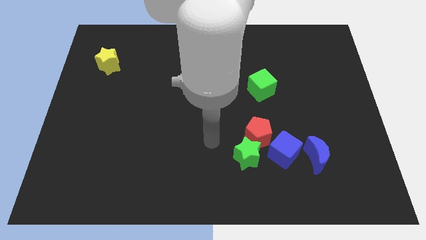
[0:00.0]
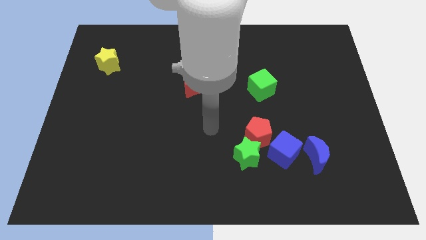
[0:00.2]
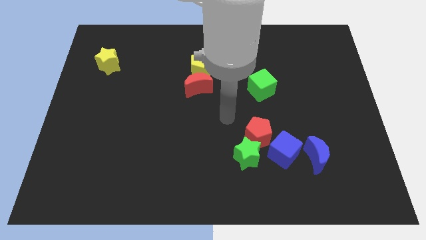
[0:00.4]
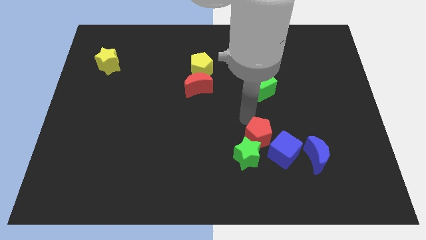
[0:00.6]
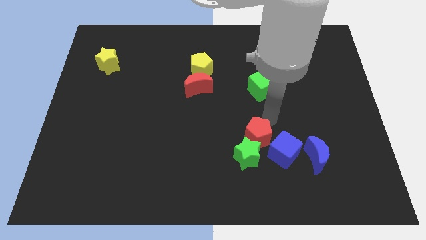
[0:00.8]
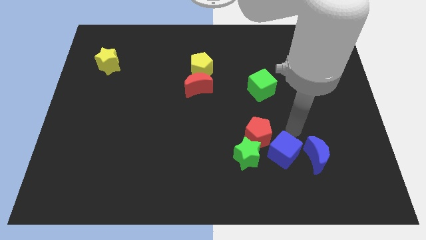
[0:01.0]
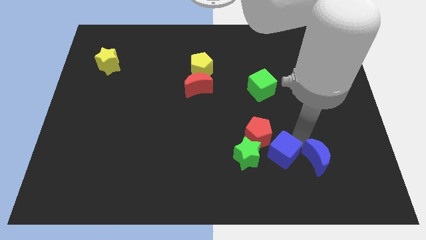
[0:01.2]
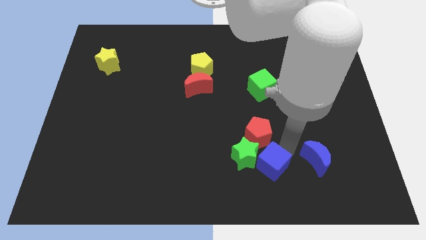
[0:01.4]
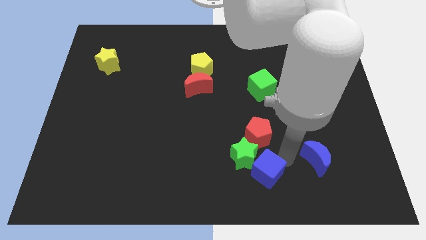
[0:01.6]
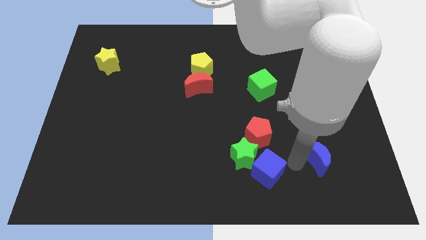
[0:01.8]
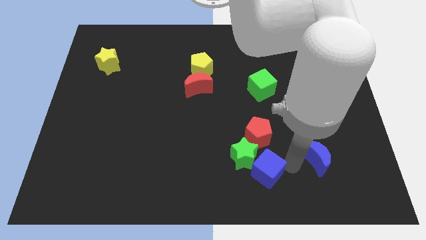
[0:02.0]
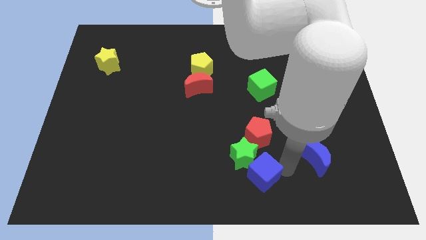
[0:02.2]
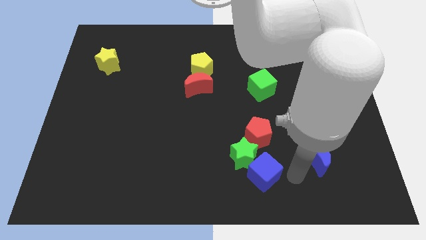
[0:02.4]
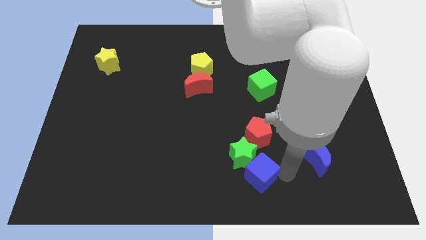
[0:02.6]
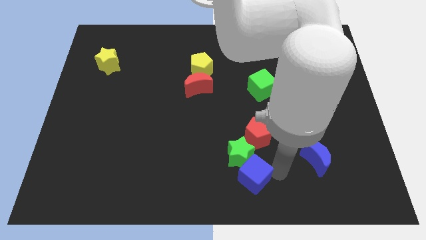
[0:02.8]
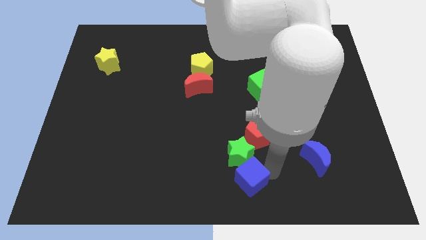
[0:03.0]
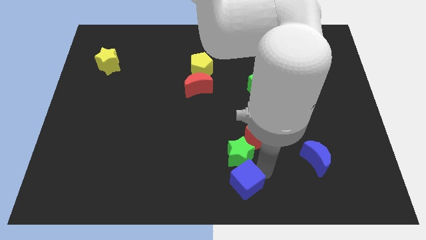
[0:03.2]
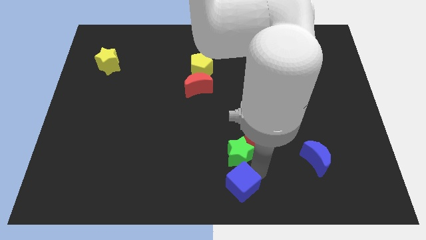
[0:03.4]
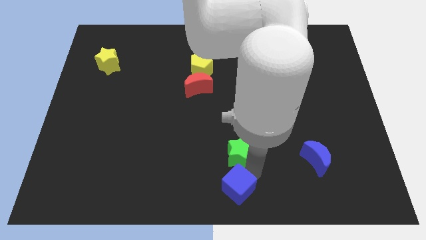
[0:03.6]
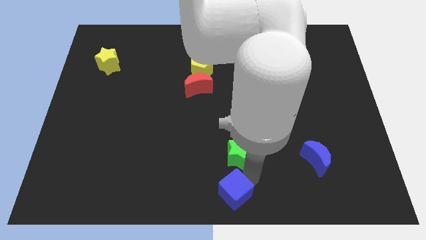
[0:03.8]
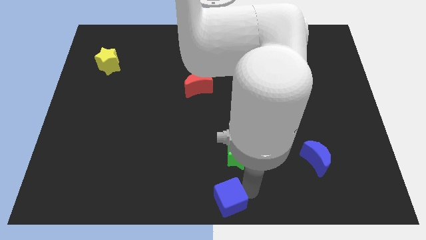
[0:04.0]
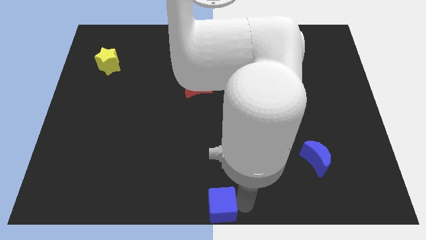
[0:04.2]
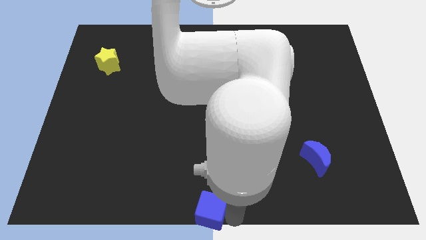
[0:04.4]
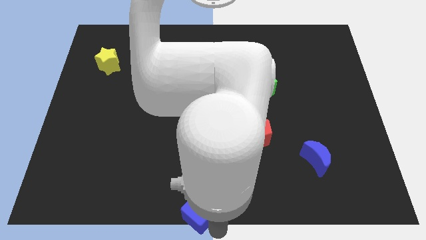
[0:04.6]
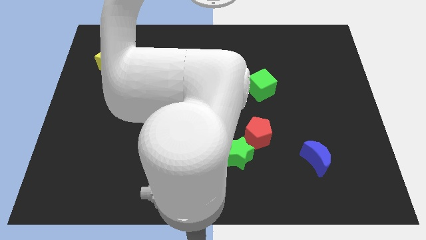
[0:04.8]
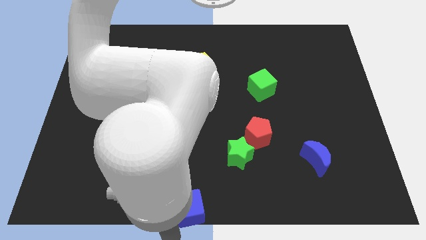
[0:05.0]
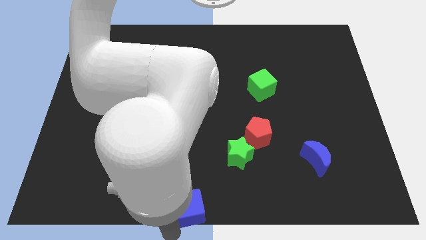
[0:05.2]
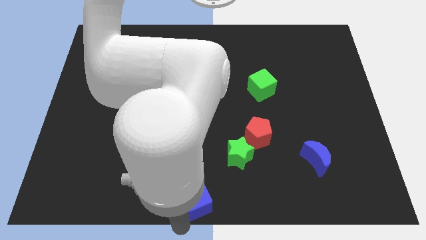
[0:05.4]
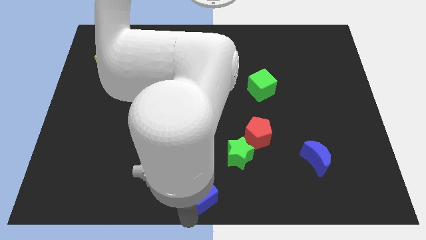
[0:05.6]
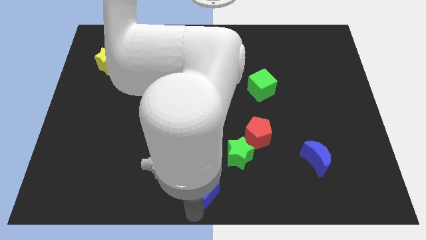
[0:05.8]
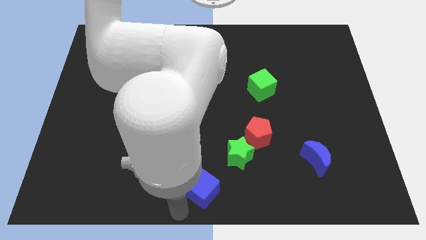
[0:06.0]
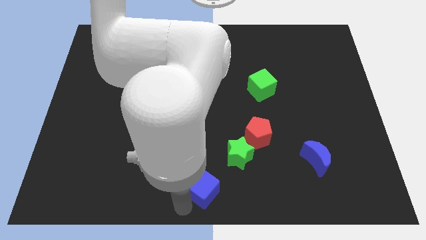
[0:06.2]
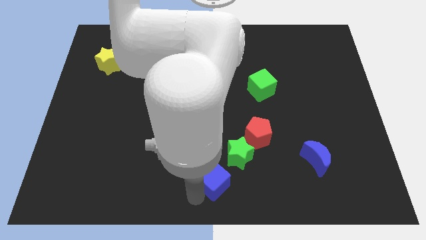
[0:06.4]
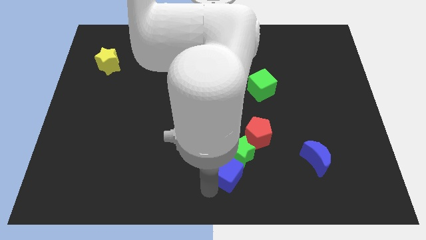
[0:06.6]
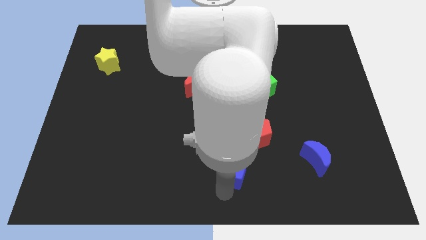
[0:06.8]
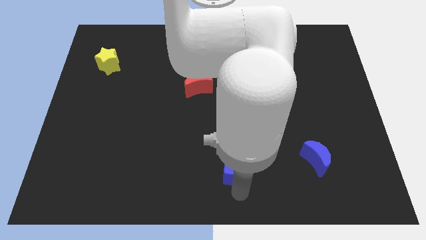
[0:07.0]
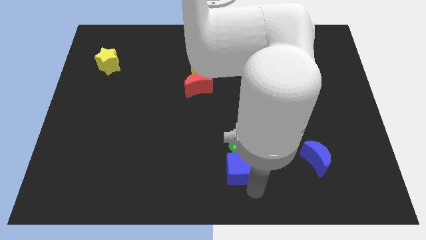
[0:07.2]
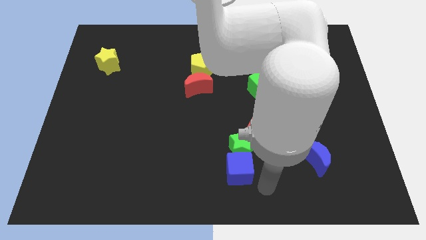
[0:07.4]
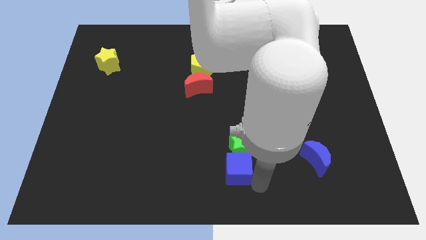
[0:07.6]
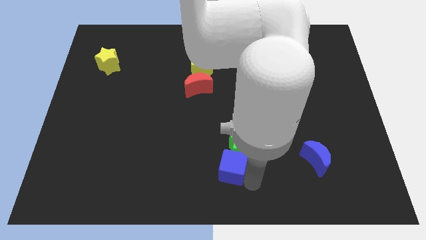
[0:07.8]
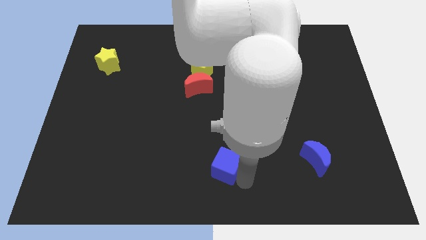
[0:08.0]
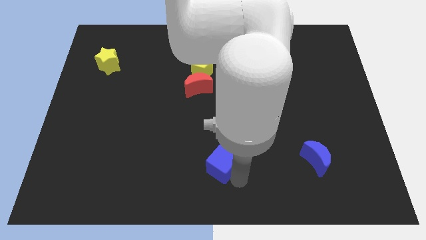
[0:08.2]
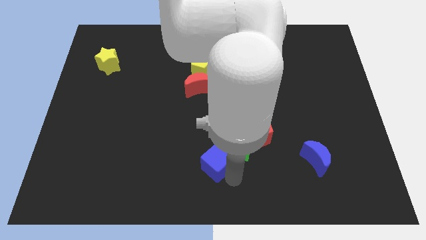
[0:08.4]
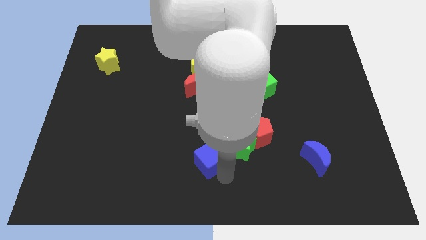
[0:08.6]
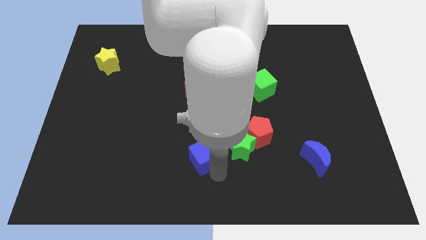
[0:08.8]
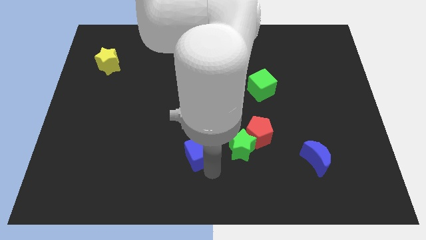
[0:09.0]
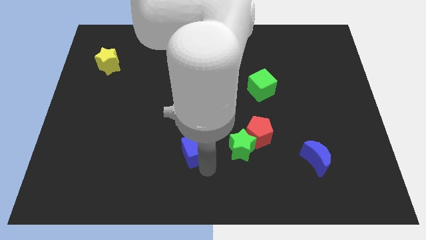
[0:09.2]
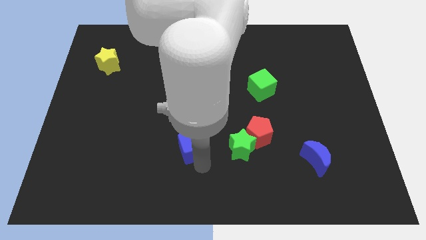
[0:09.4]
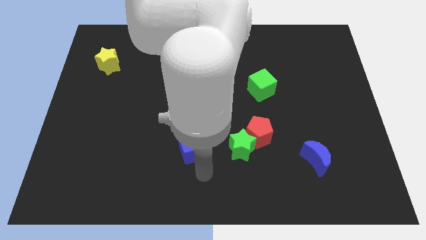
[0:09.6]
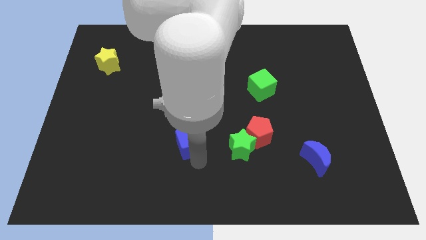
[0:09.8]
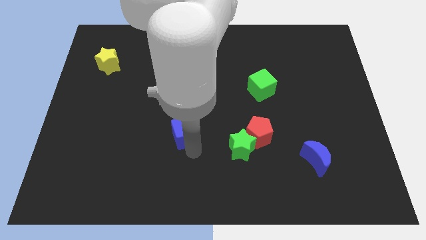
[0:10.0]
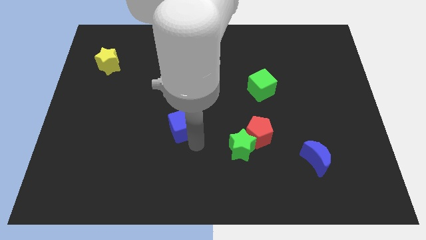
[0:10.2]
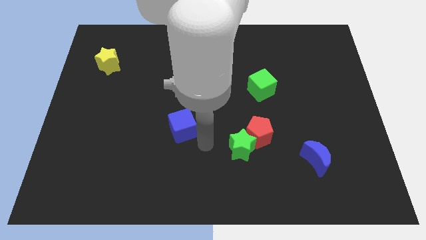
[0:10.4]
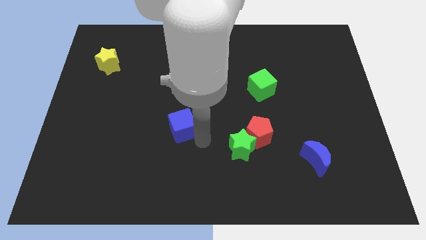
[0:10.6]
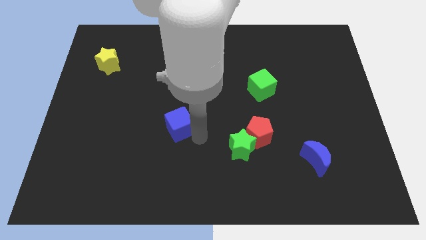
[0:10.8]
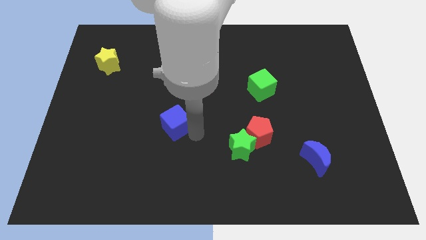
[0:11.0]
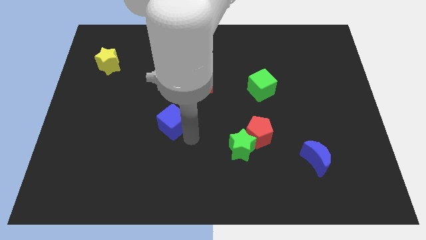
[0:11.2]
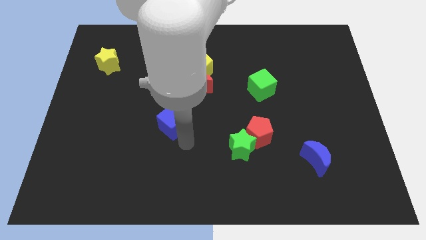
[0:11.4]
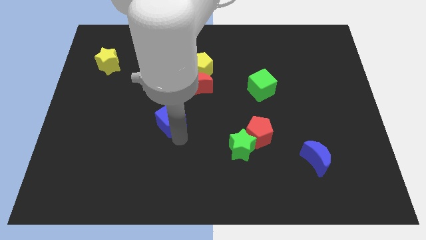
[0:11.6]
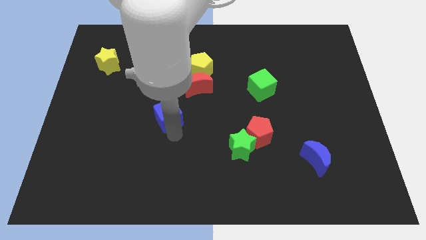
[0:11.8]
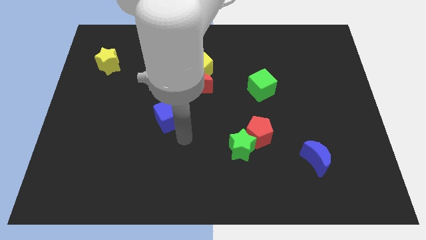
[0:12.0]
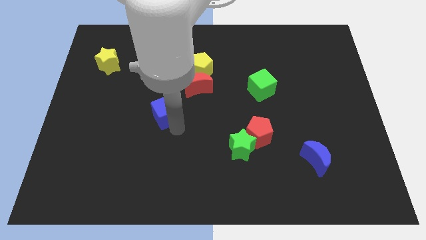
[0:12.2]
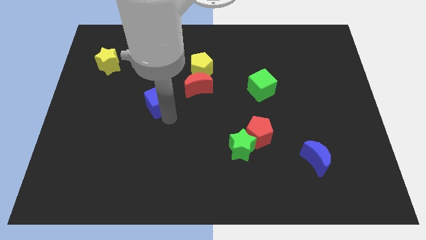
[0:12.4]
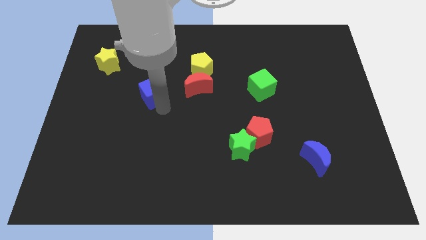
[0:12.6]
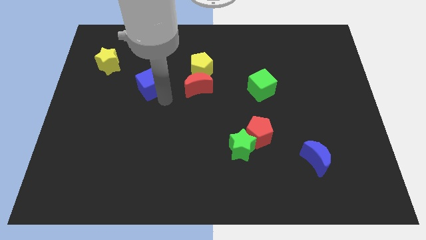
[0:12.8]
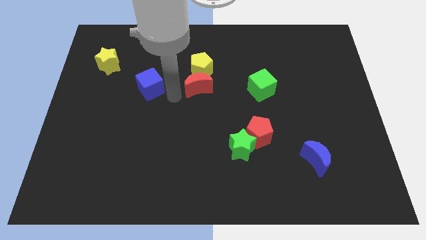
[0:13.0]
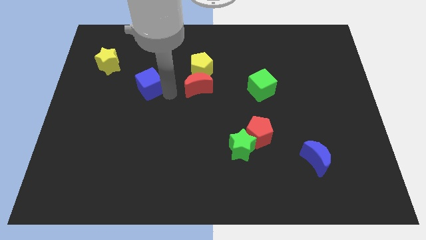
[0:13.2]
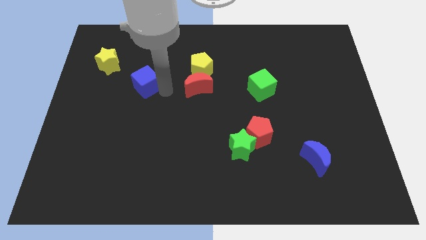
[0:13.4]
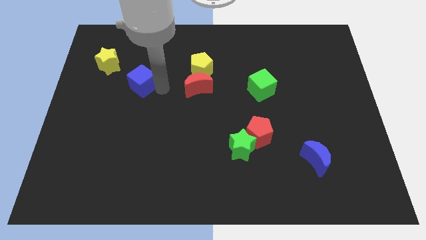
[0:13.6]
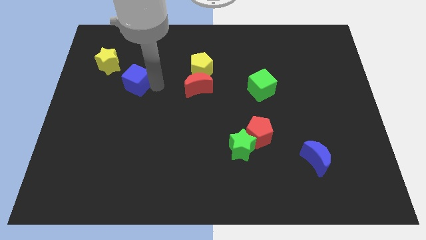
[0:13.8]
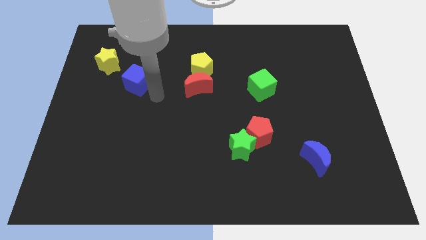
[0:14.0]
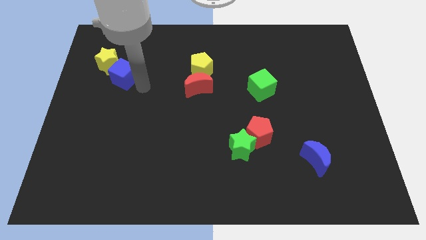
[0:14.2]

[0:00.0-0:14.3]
slide the blue cube towards the yellow star
